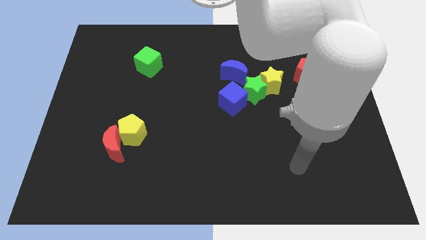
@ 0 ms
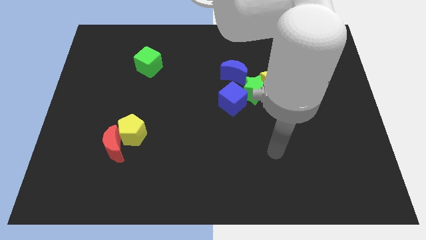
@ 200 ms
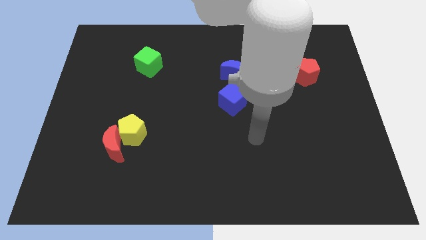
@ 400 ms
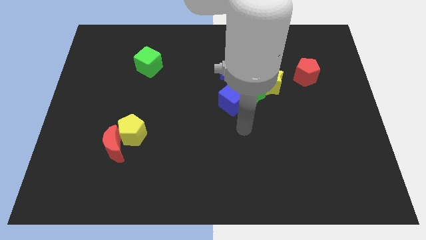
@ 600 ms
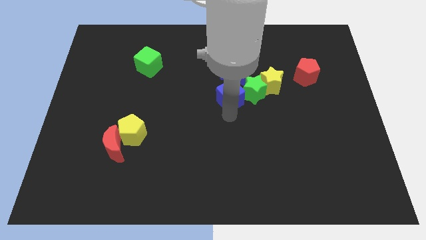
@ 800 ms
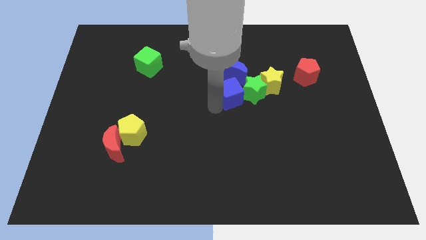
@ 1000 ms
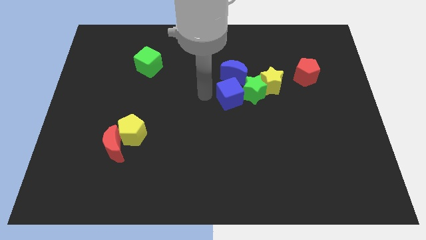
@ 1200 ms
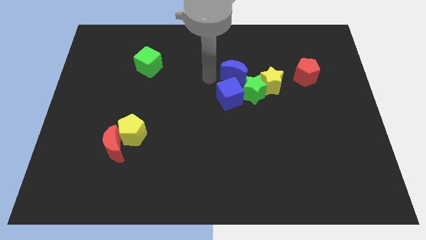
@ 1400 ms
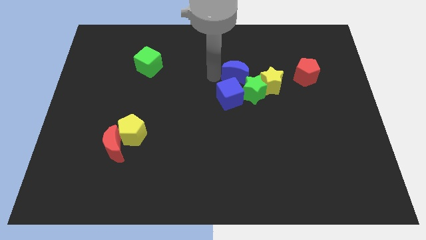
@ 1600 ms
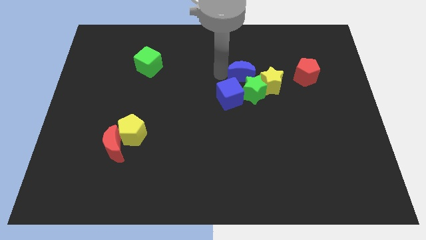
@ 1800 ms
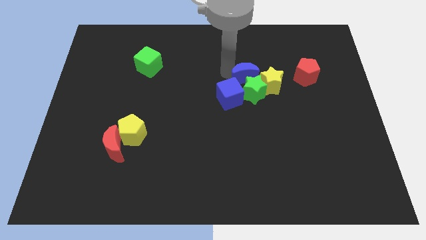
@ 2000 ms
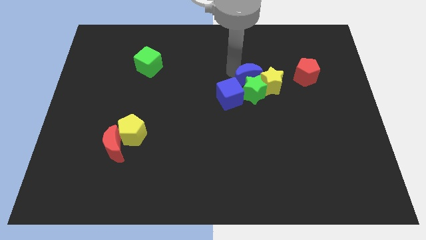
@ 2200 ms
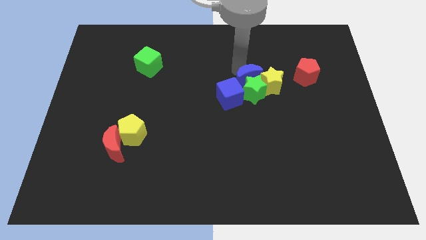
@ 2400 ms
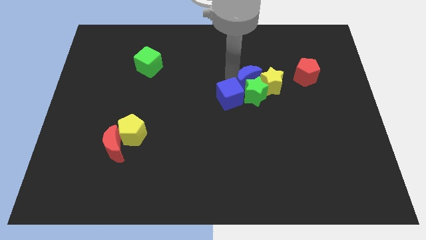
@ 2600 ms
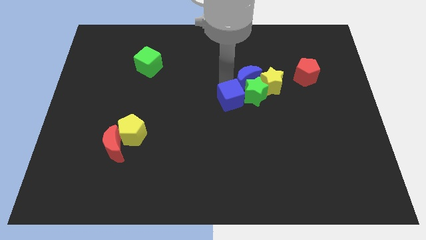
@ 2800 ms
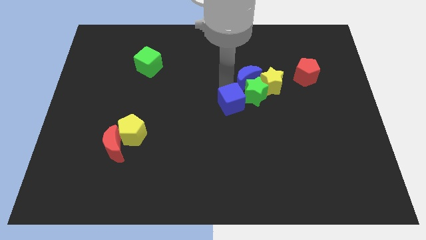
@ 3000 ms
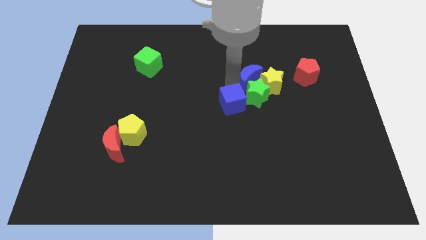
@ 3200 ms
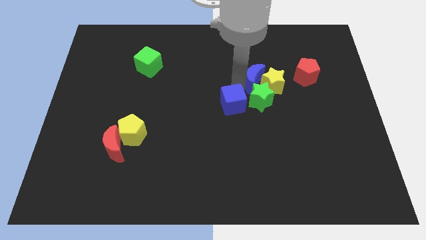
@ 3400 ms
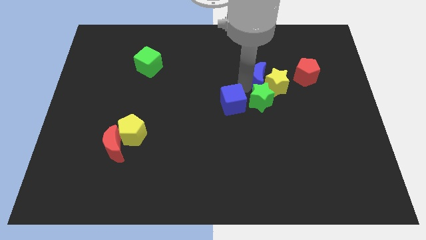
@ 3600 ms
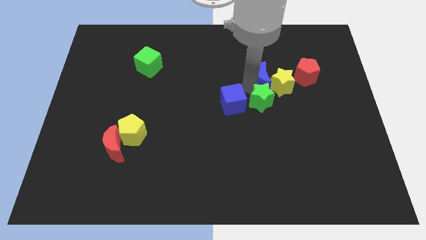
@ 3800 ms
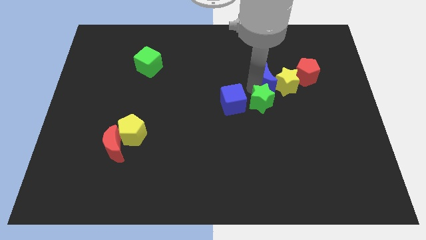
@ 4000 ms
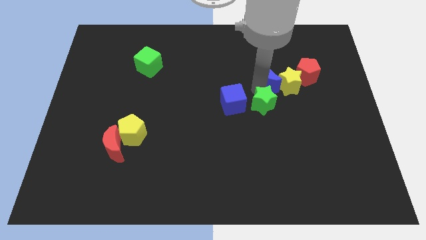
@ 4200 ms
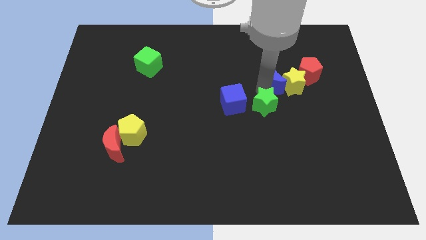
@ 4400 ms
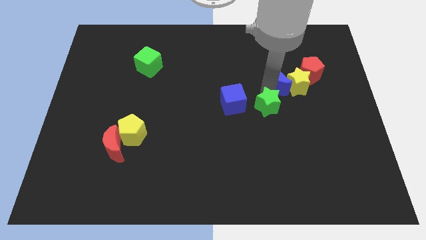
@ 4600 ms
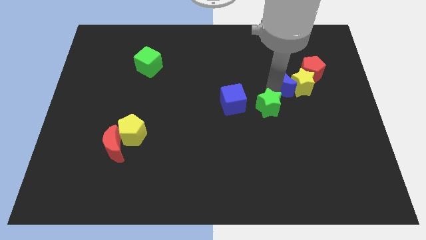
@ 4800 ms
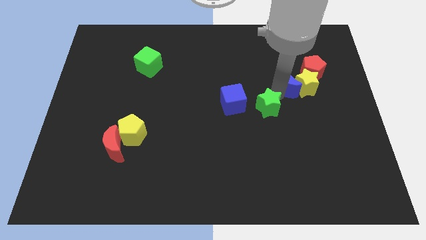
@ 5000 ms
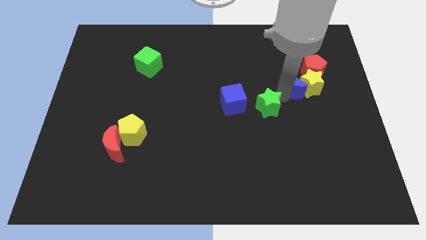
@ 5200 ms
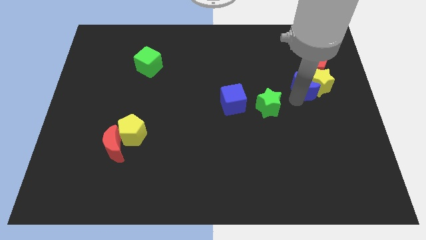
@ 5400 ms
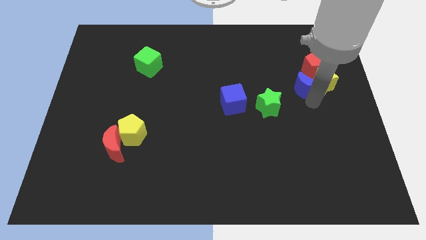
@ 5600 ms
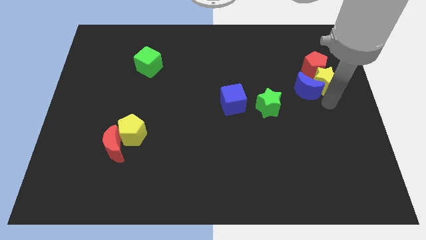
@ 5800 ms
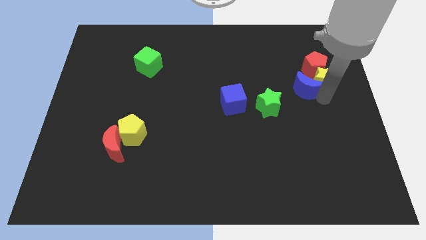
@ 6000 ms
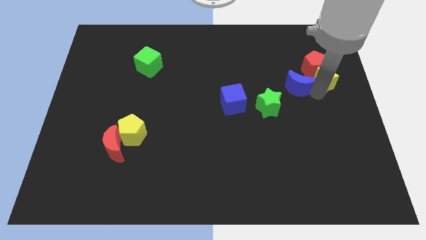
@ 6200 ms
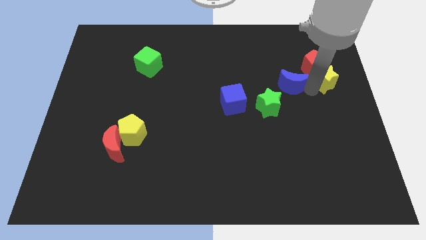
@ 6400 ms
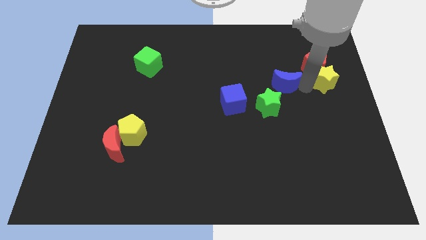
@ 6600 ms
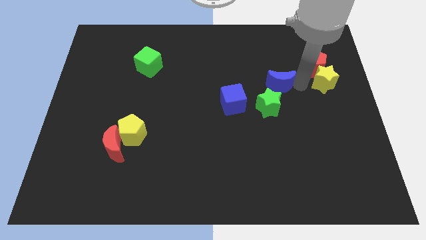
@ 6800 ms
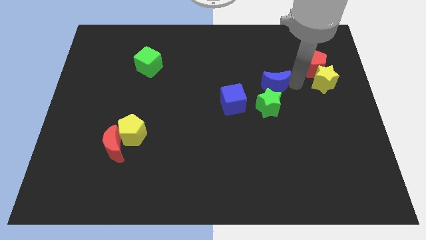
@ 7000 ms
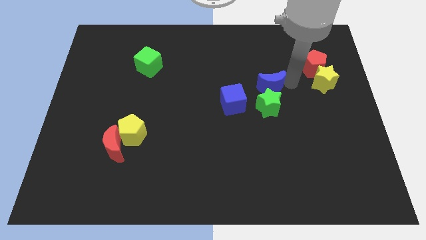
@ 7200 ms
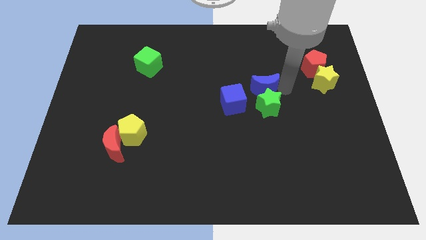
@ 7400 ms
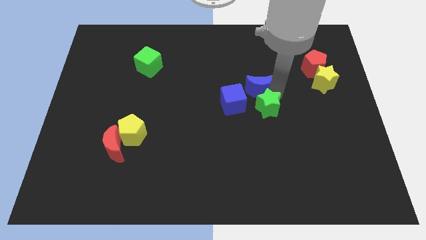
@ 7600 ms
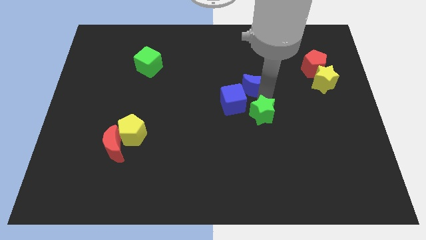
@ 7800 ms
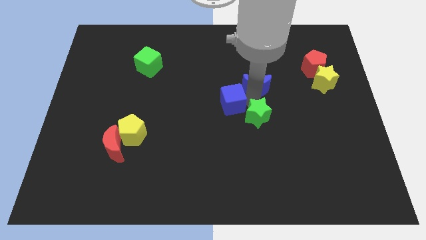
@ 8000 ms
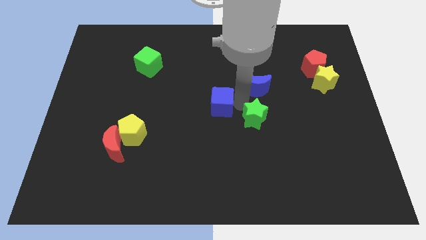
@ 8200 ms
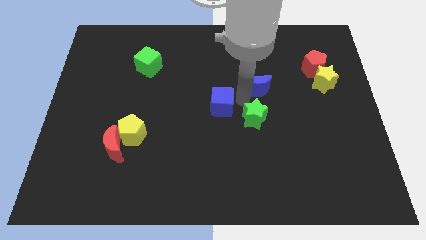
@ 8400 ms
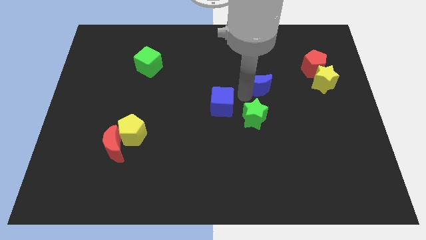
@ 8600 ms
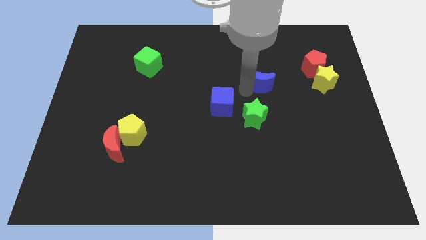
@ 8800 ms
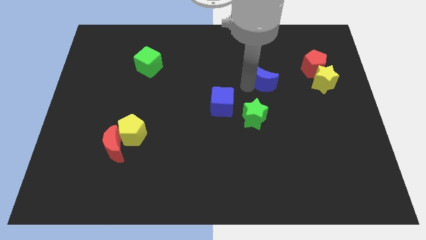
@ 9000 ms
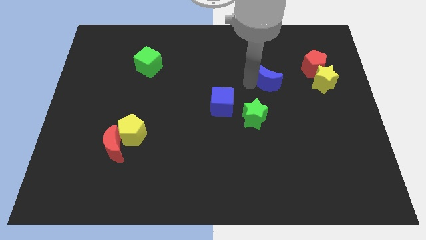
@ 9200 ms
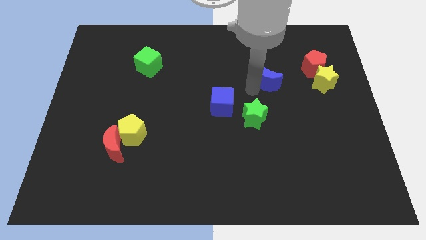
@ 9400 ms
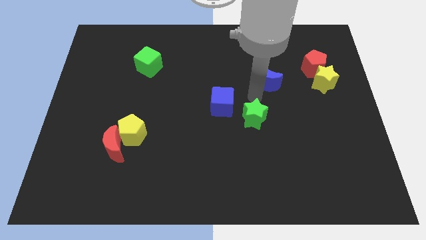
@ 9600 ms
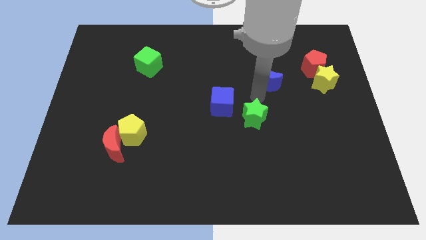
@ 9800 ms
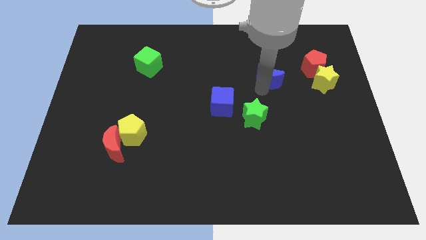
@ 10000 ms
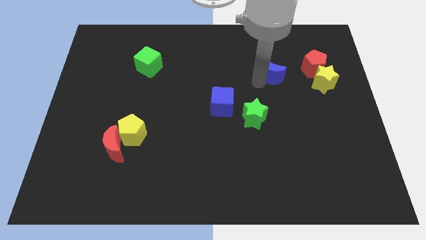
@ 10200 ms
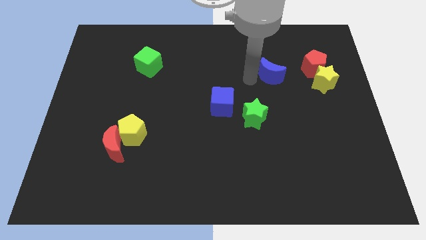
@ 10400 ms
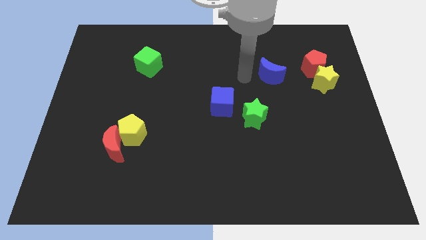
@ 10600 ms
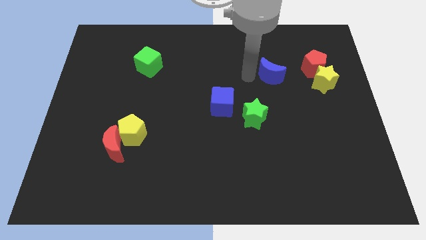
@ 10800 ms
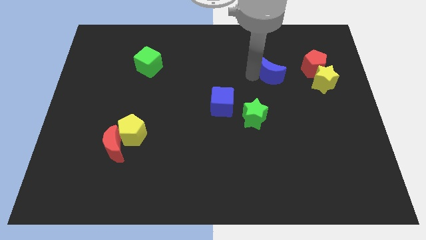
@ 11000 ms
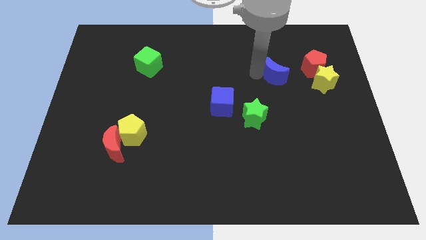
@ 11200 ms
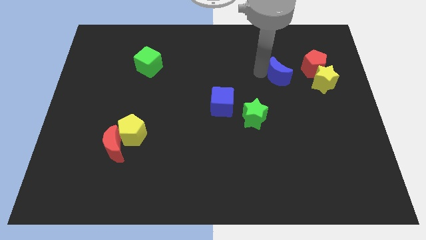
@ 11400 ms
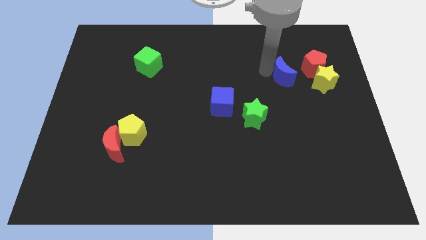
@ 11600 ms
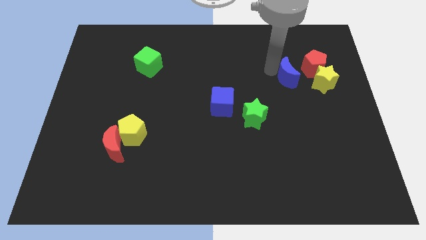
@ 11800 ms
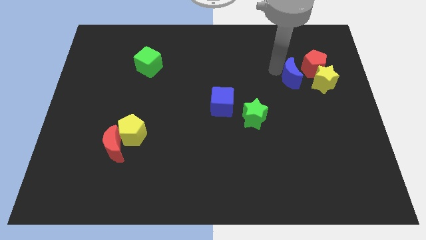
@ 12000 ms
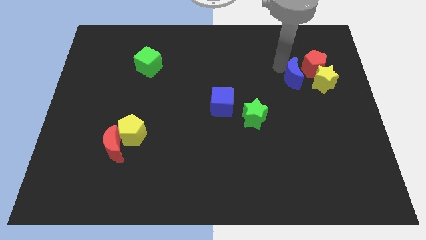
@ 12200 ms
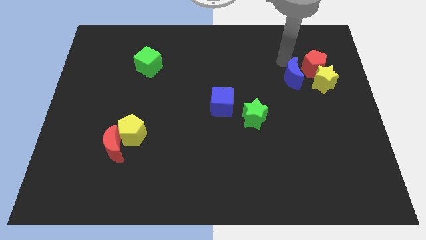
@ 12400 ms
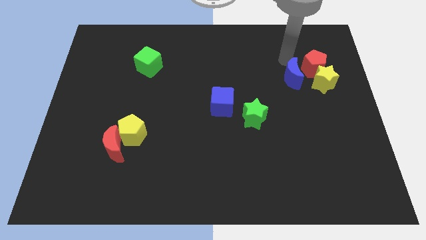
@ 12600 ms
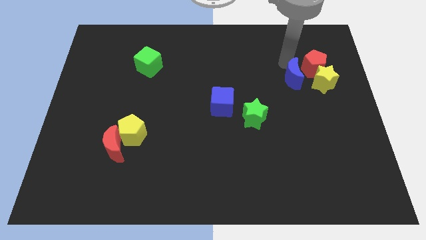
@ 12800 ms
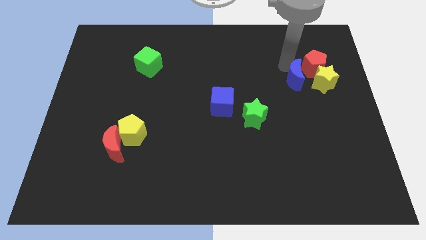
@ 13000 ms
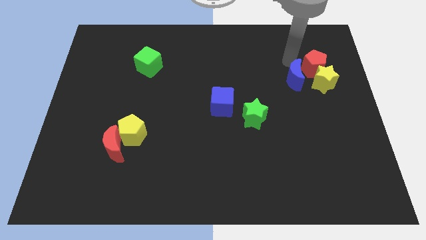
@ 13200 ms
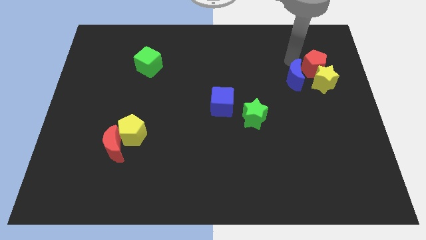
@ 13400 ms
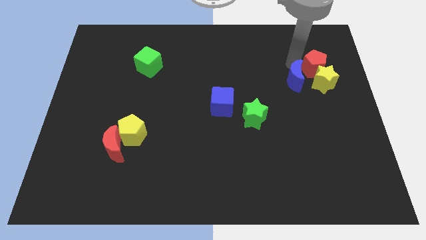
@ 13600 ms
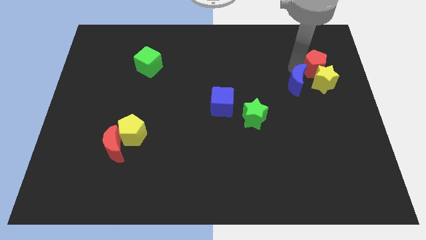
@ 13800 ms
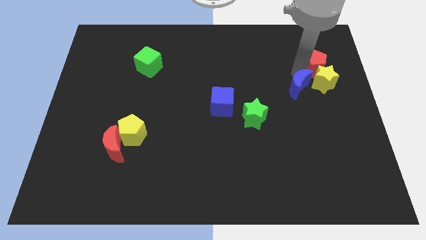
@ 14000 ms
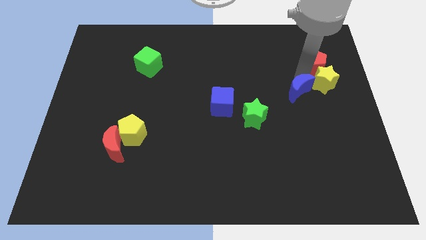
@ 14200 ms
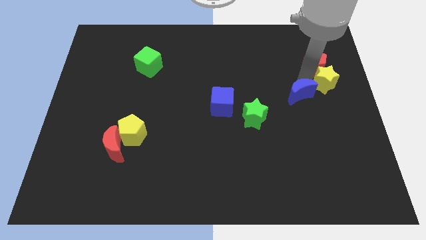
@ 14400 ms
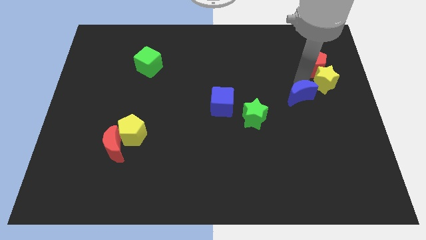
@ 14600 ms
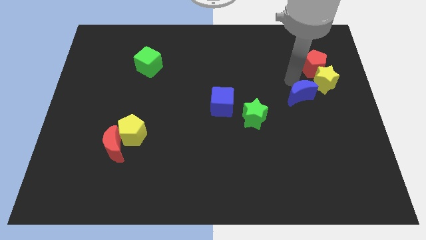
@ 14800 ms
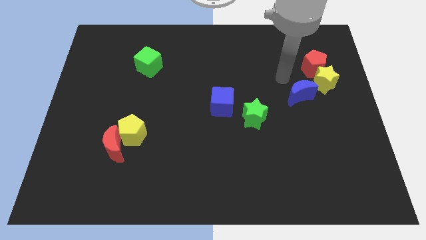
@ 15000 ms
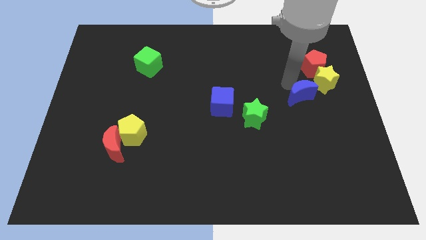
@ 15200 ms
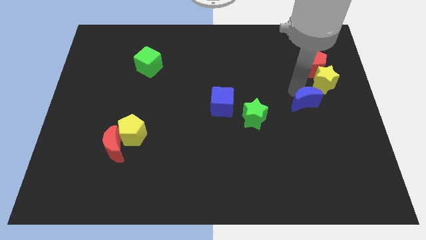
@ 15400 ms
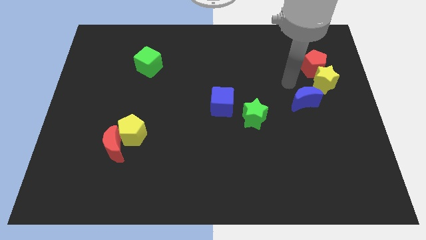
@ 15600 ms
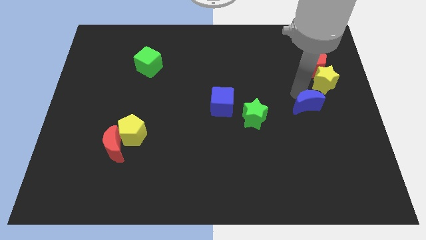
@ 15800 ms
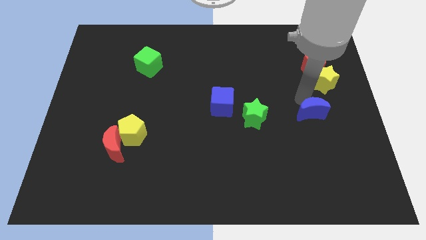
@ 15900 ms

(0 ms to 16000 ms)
slide the blue moon down and right
